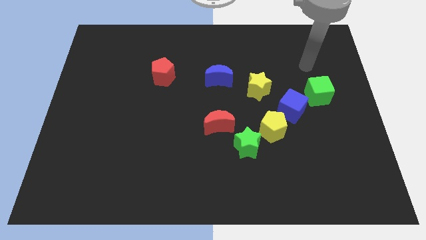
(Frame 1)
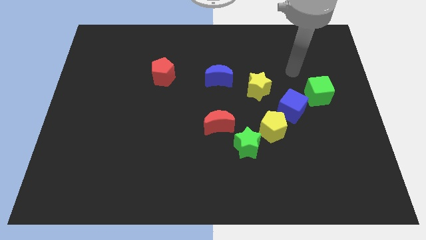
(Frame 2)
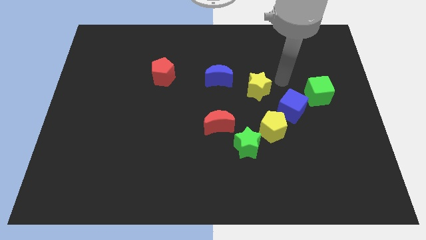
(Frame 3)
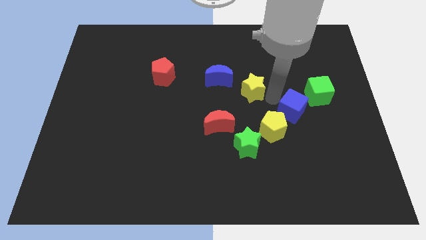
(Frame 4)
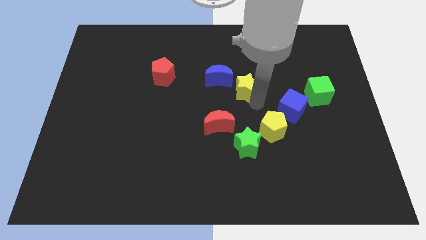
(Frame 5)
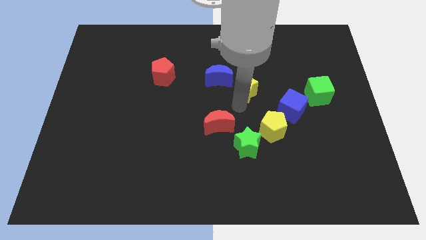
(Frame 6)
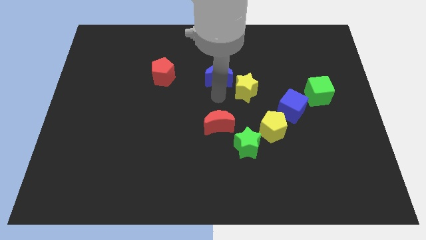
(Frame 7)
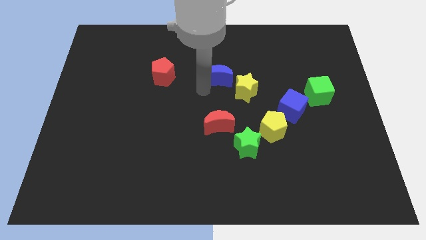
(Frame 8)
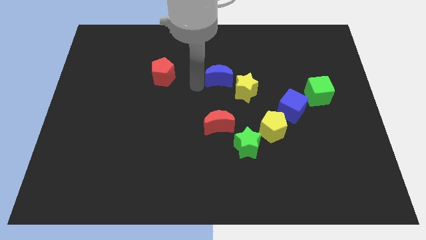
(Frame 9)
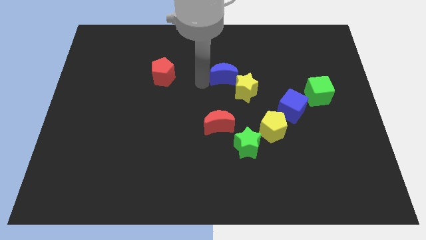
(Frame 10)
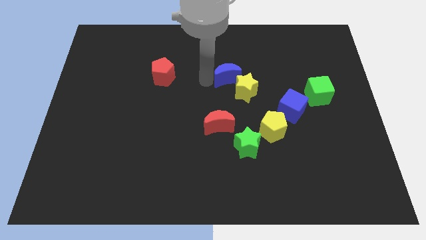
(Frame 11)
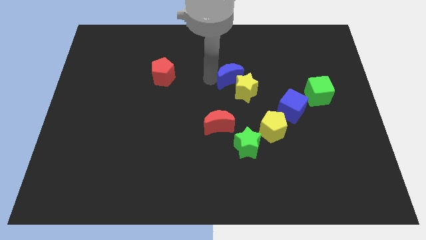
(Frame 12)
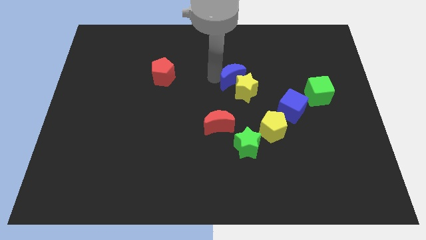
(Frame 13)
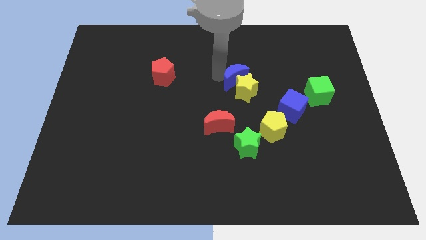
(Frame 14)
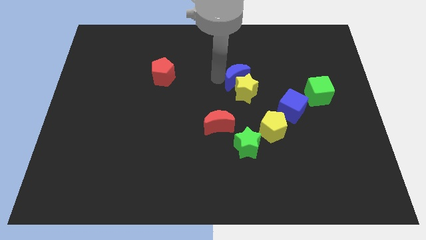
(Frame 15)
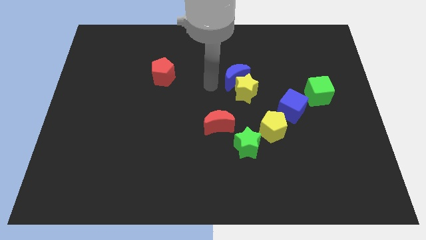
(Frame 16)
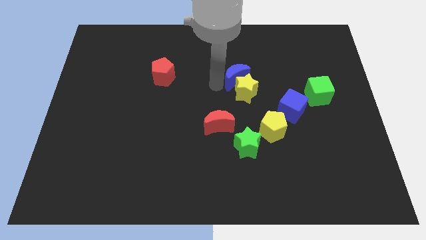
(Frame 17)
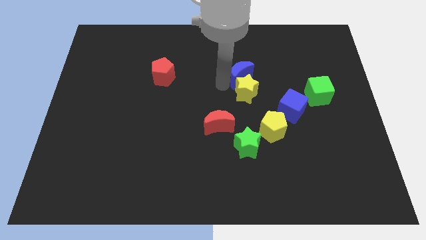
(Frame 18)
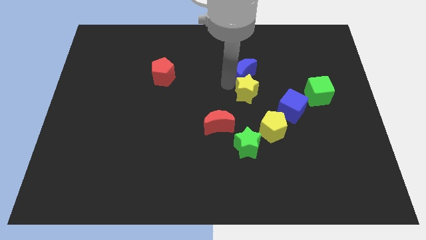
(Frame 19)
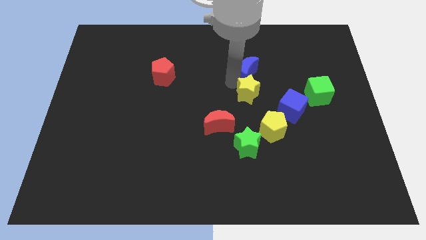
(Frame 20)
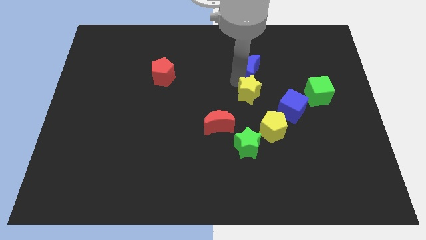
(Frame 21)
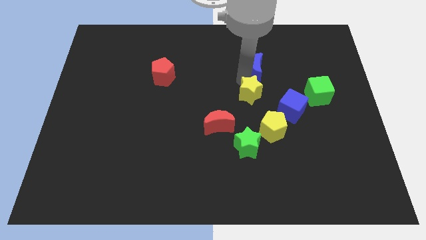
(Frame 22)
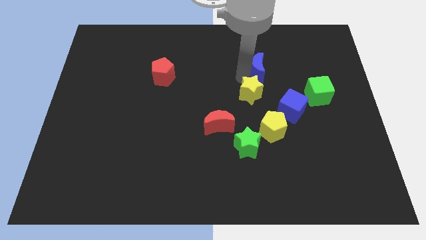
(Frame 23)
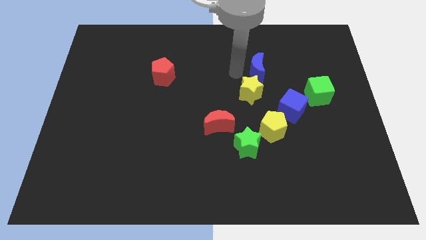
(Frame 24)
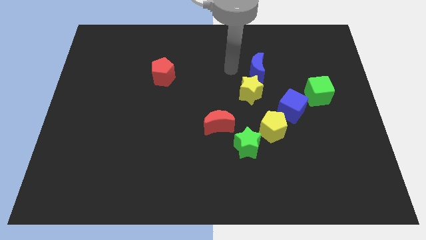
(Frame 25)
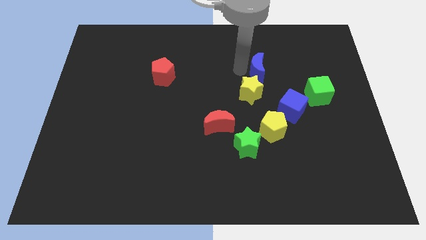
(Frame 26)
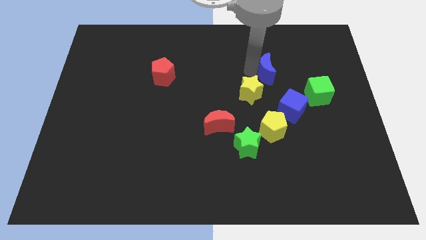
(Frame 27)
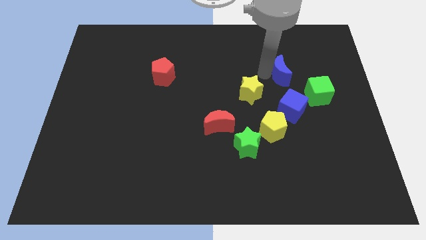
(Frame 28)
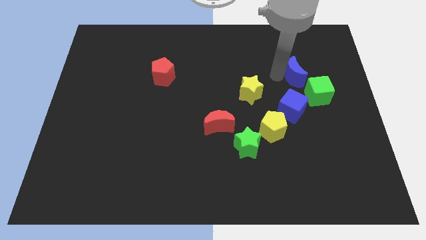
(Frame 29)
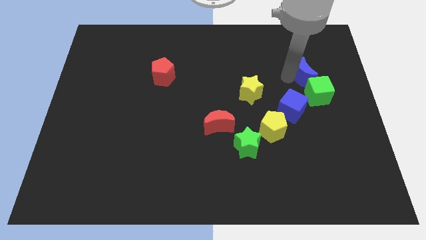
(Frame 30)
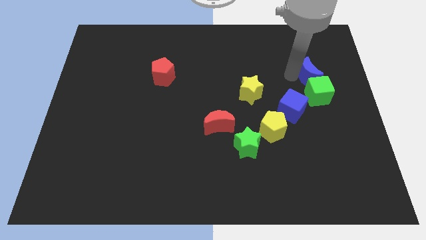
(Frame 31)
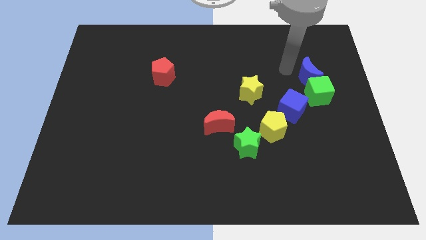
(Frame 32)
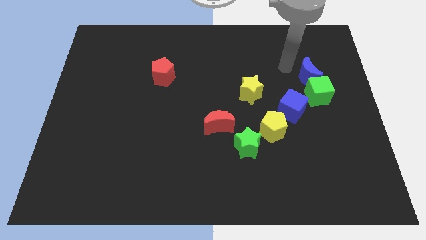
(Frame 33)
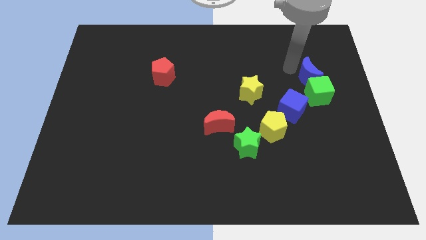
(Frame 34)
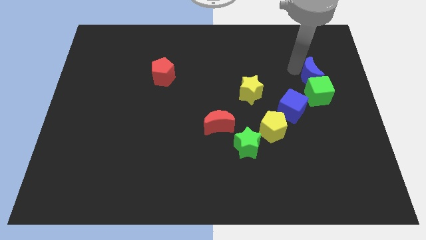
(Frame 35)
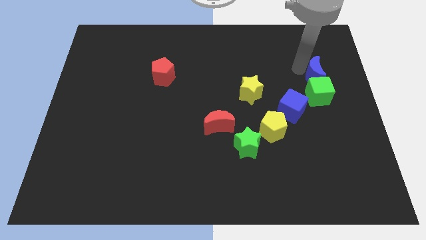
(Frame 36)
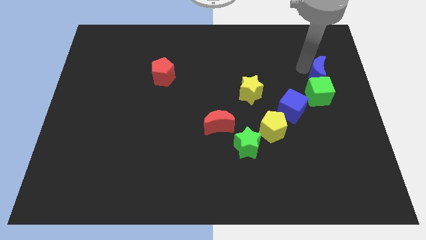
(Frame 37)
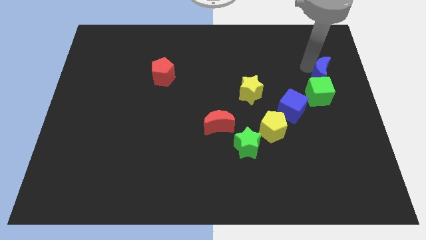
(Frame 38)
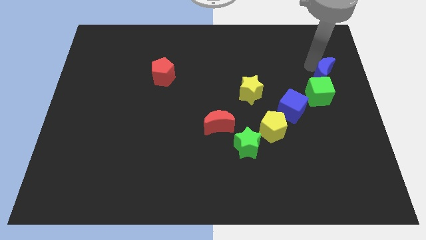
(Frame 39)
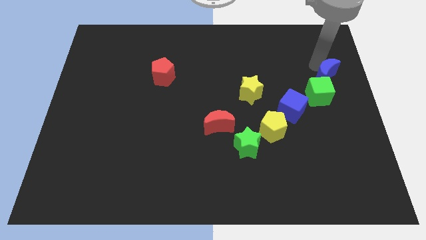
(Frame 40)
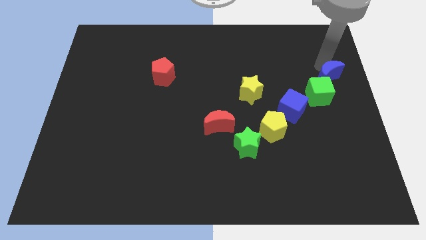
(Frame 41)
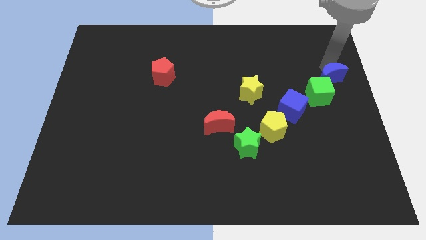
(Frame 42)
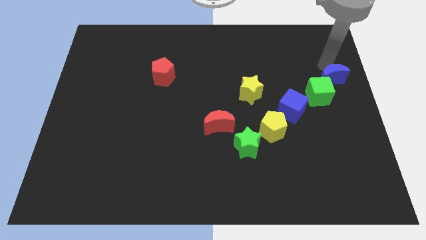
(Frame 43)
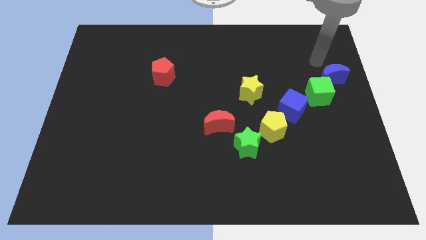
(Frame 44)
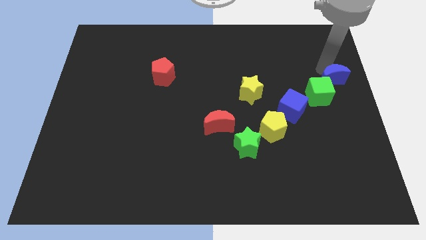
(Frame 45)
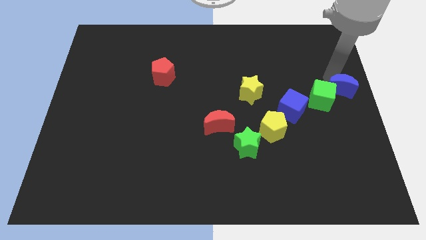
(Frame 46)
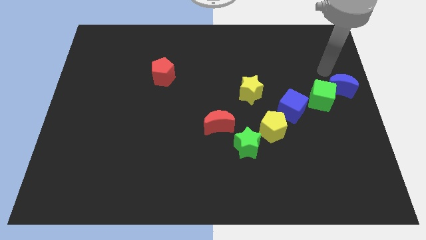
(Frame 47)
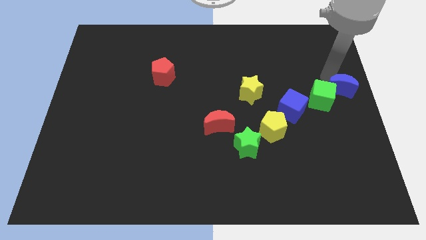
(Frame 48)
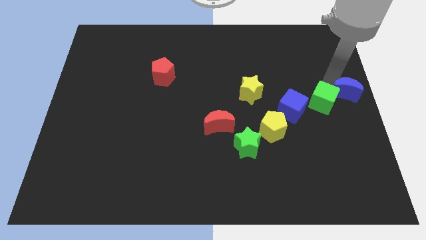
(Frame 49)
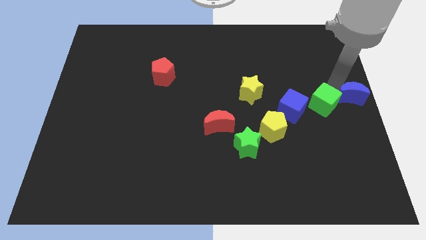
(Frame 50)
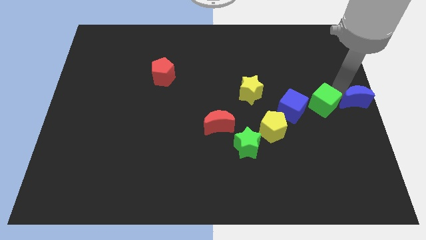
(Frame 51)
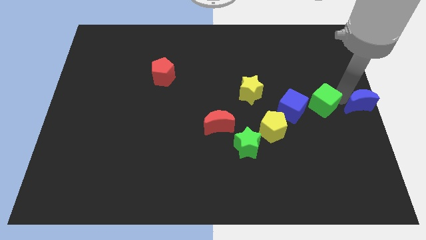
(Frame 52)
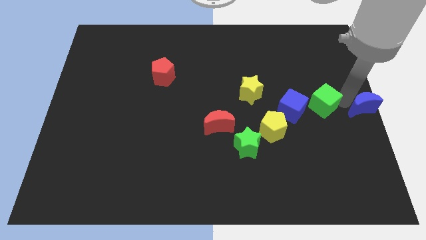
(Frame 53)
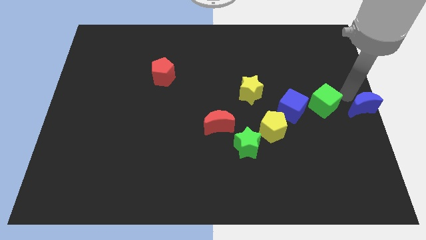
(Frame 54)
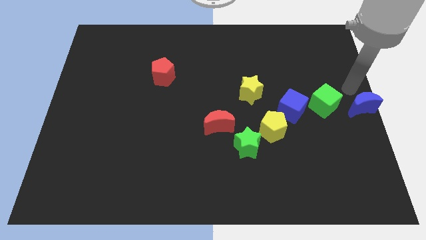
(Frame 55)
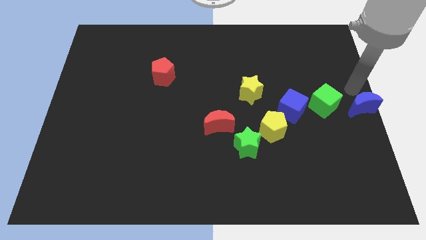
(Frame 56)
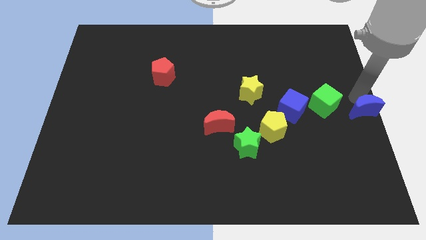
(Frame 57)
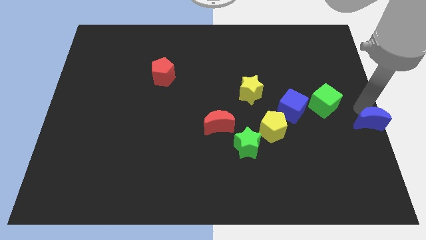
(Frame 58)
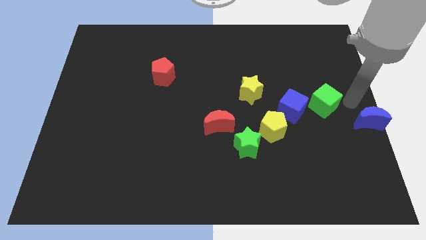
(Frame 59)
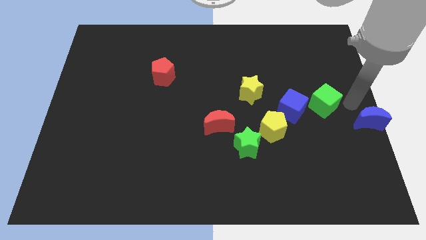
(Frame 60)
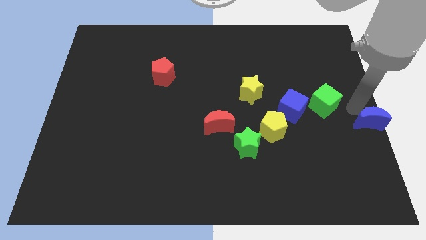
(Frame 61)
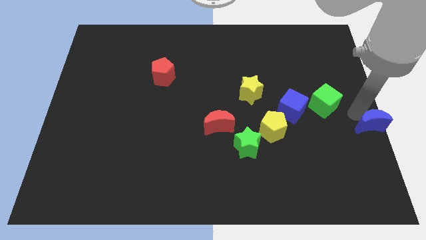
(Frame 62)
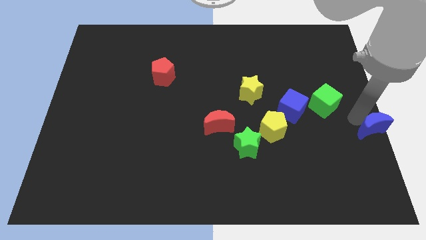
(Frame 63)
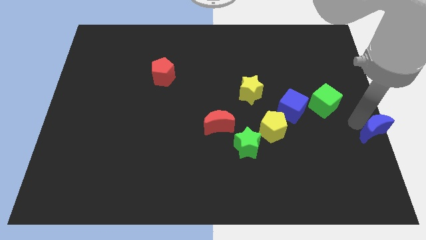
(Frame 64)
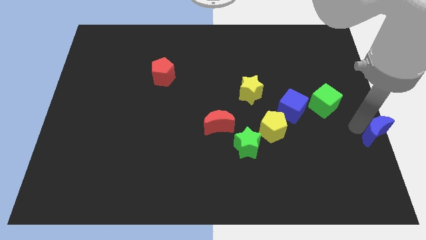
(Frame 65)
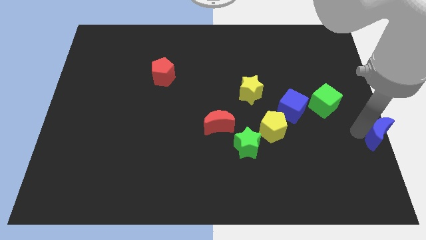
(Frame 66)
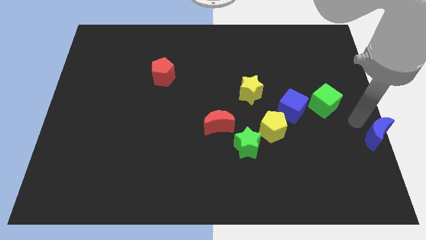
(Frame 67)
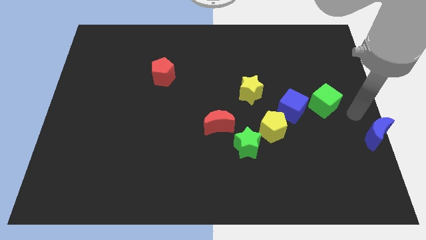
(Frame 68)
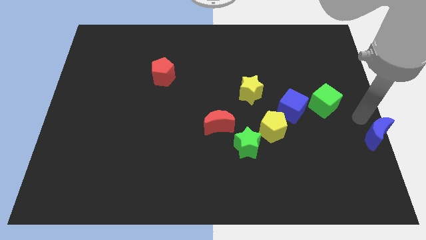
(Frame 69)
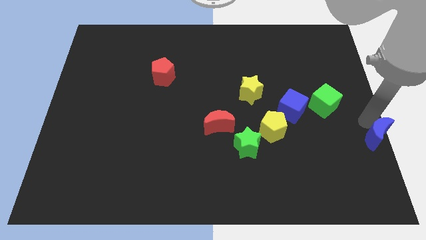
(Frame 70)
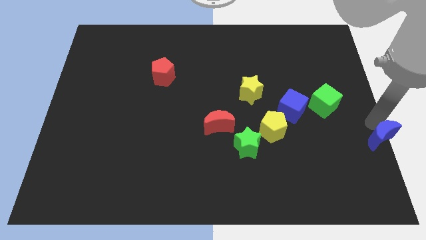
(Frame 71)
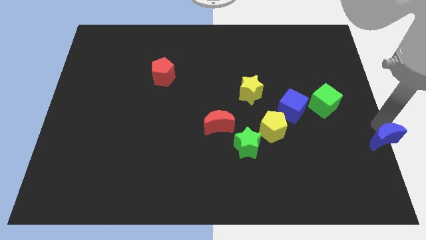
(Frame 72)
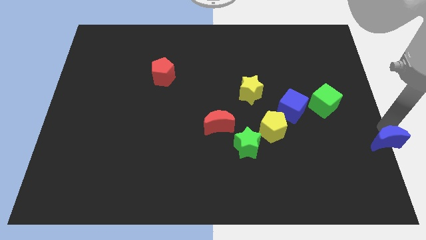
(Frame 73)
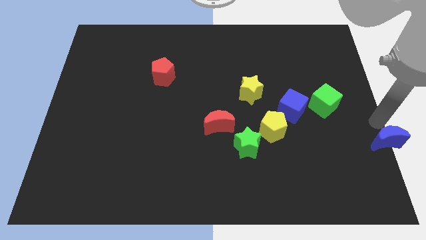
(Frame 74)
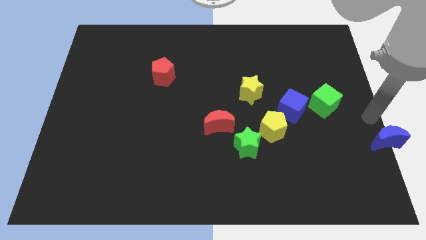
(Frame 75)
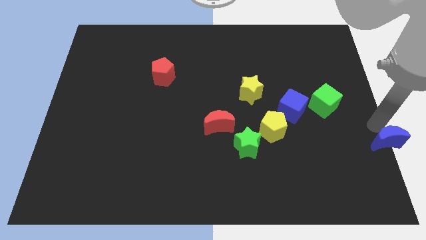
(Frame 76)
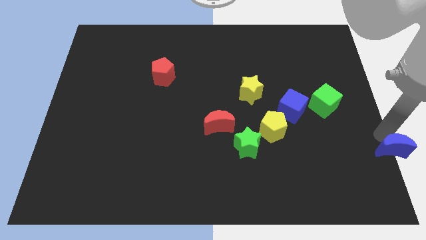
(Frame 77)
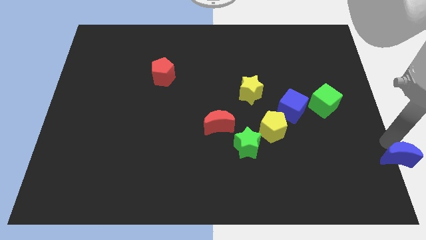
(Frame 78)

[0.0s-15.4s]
push the blue moon to the lower right corner

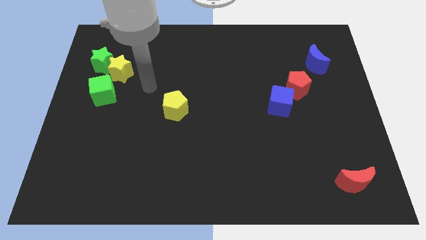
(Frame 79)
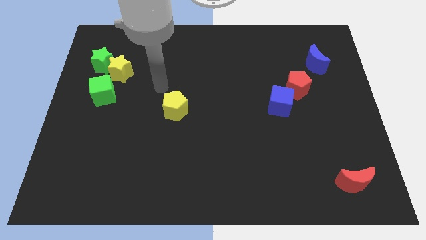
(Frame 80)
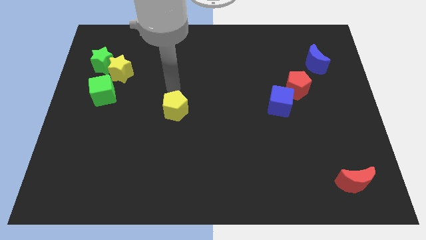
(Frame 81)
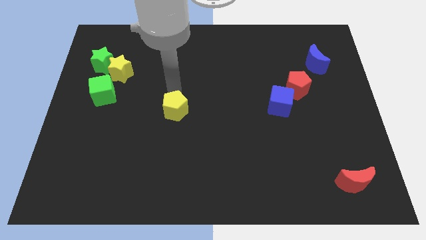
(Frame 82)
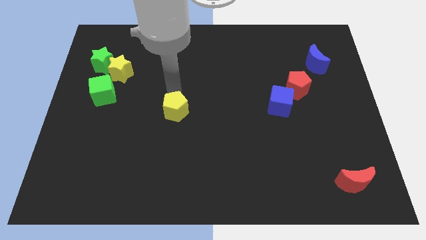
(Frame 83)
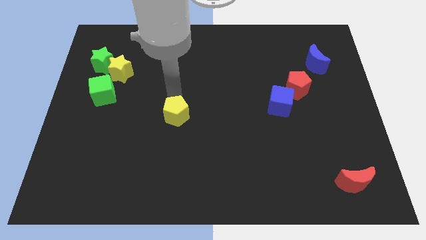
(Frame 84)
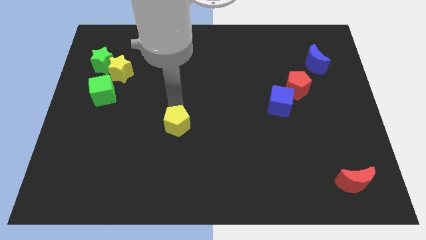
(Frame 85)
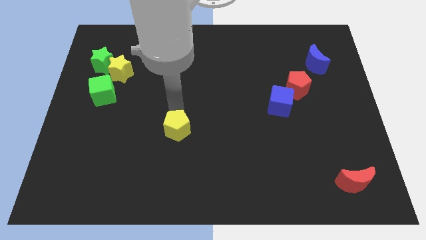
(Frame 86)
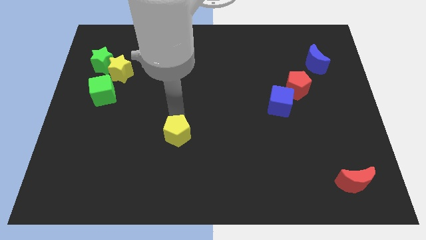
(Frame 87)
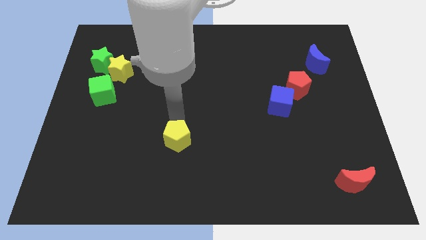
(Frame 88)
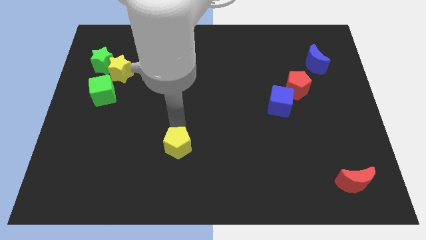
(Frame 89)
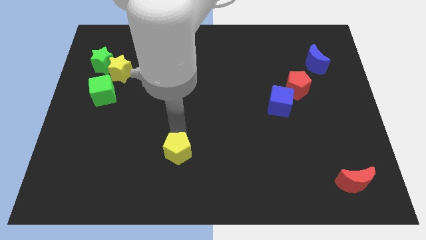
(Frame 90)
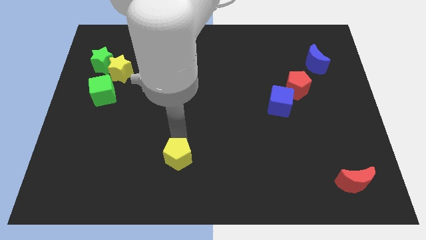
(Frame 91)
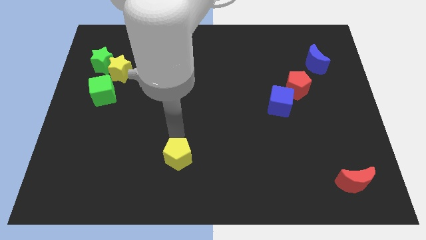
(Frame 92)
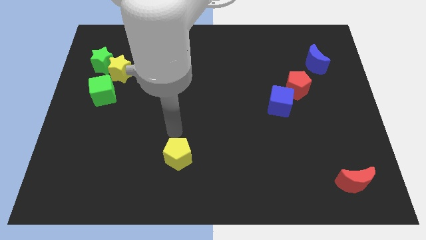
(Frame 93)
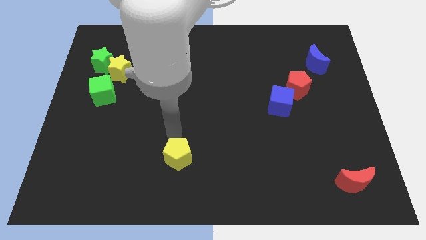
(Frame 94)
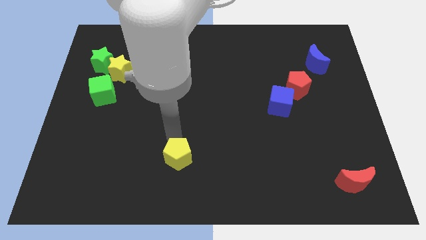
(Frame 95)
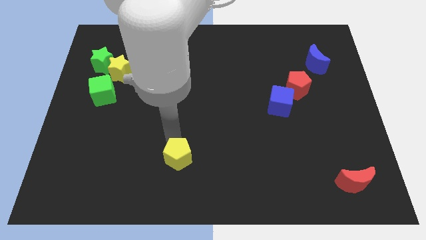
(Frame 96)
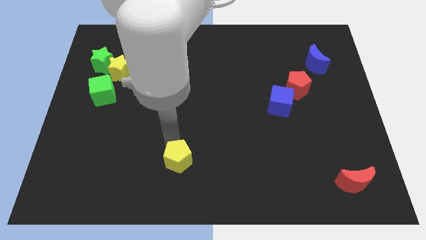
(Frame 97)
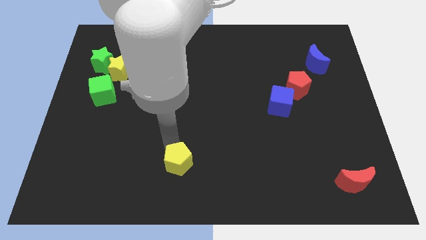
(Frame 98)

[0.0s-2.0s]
push the yellow pentagon to the bottom
